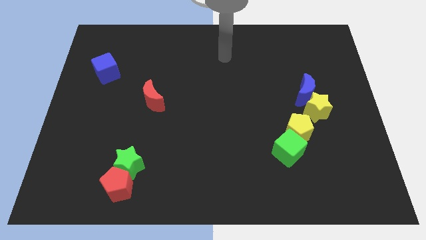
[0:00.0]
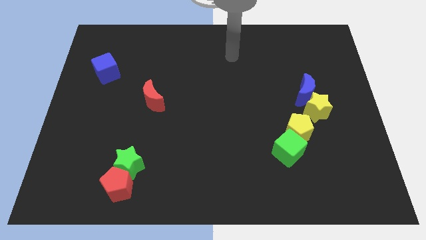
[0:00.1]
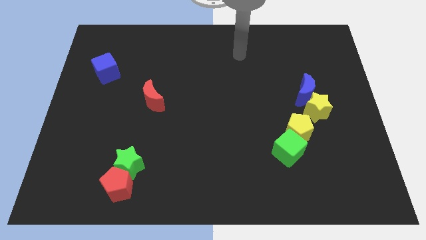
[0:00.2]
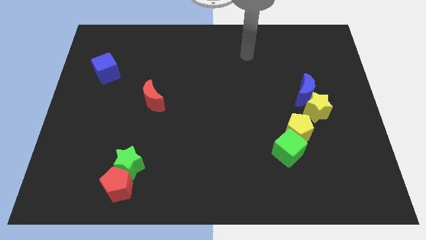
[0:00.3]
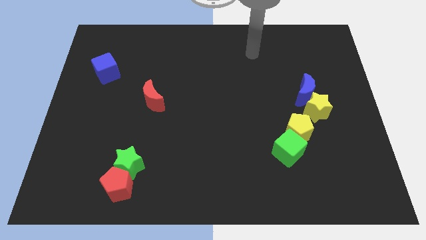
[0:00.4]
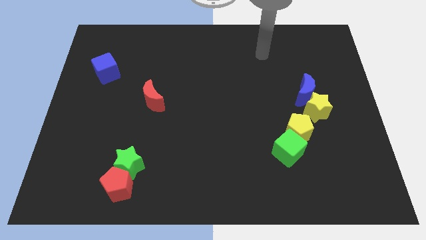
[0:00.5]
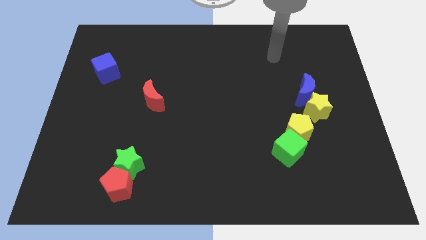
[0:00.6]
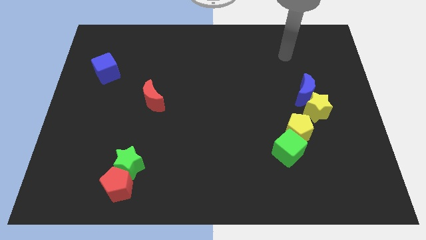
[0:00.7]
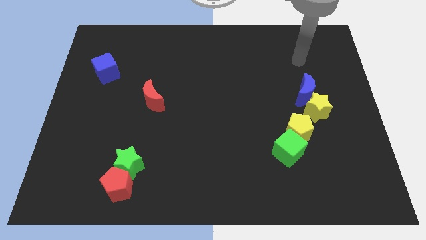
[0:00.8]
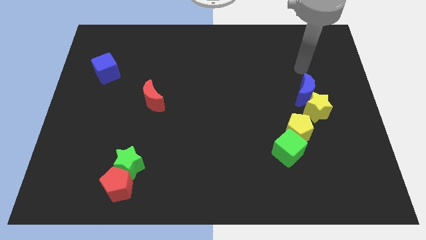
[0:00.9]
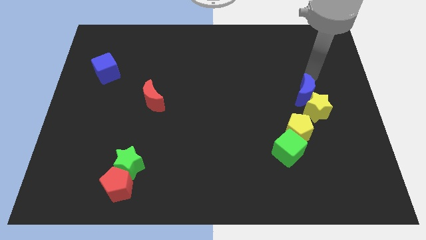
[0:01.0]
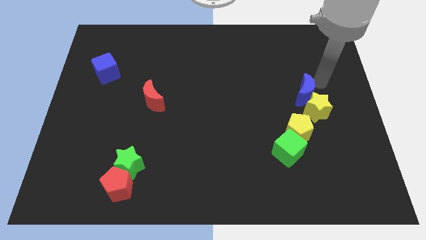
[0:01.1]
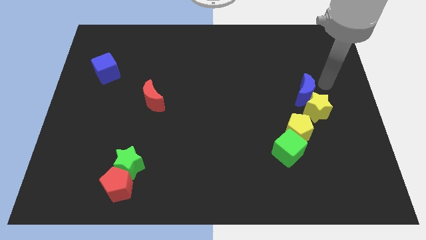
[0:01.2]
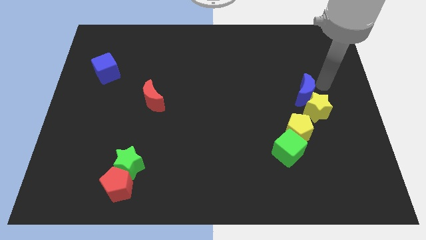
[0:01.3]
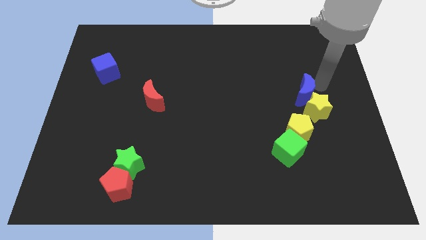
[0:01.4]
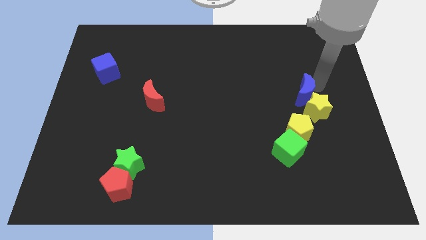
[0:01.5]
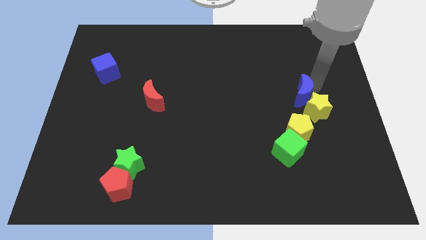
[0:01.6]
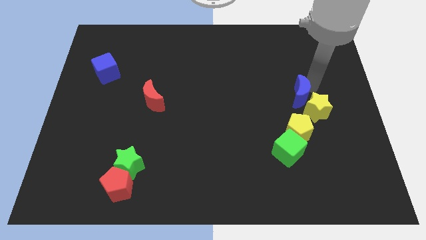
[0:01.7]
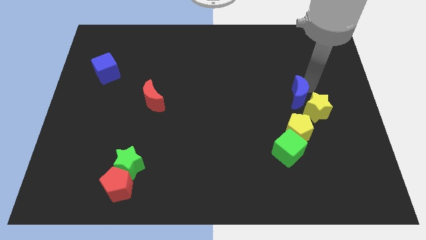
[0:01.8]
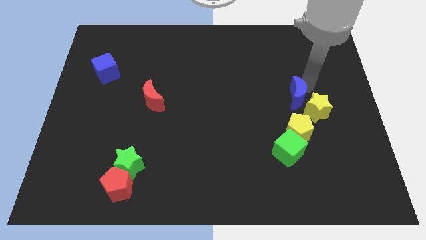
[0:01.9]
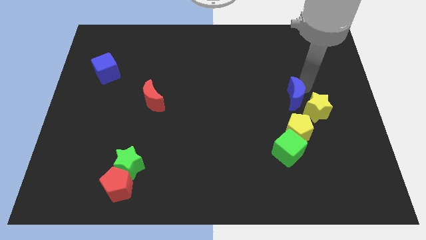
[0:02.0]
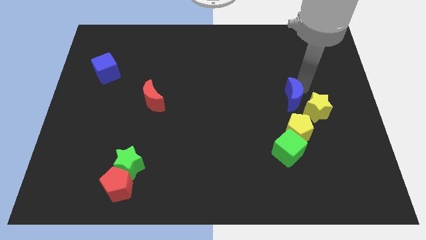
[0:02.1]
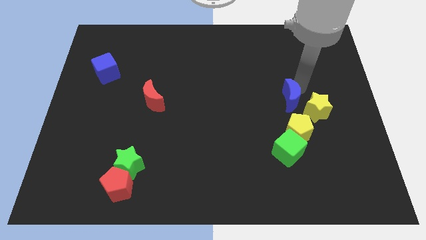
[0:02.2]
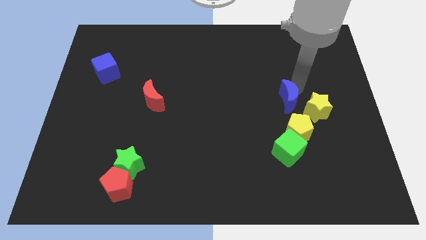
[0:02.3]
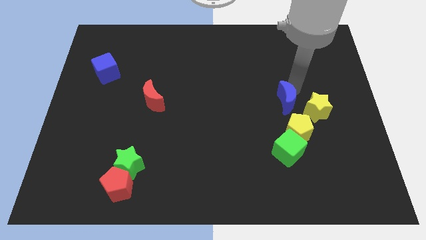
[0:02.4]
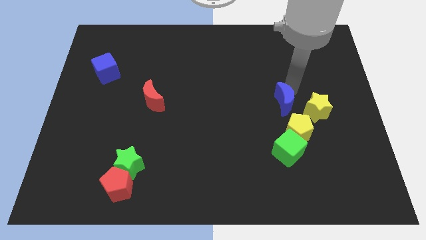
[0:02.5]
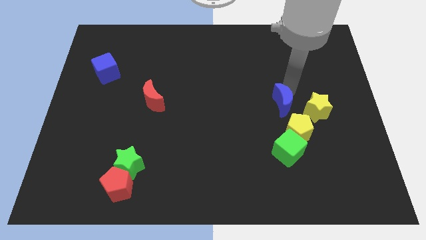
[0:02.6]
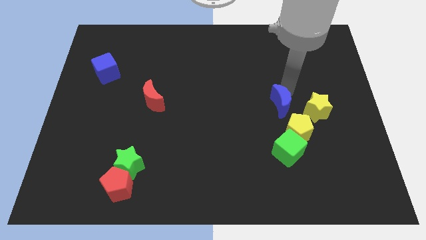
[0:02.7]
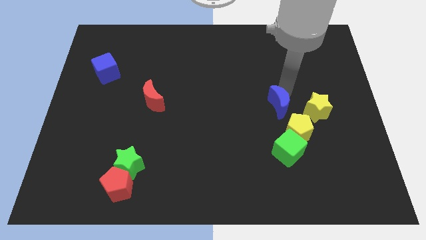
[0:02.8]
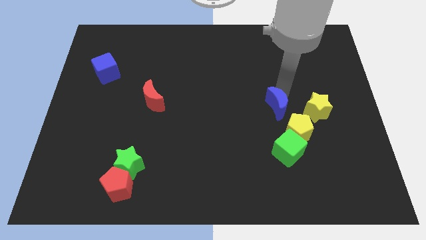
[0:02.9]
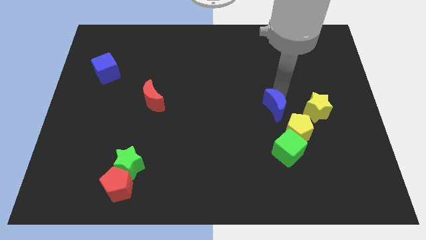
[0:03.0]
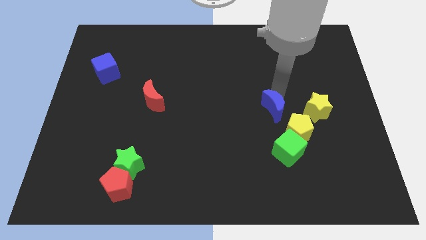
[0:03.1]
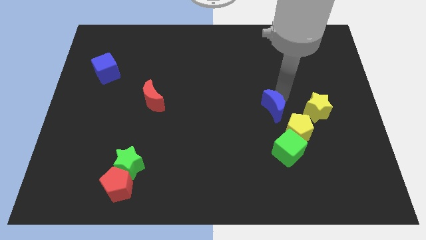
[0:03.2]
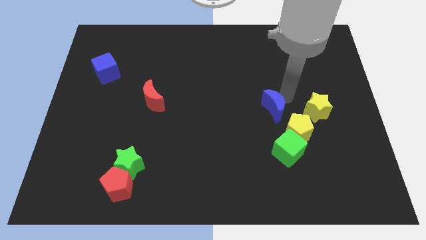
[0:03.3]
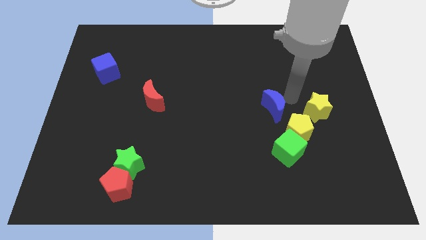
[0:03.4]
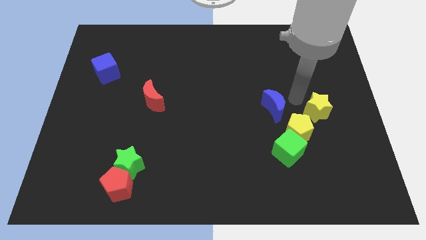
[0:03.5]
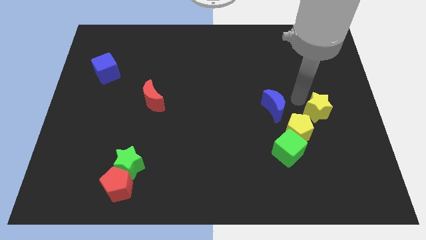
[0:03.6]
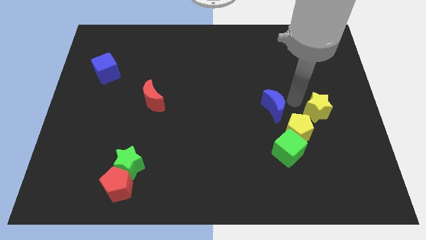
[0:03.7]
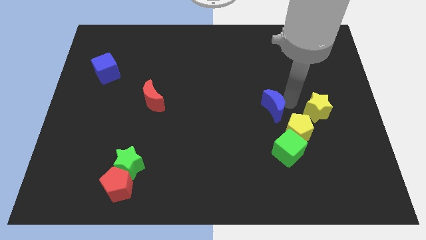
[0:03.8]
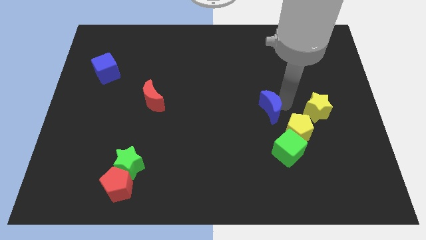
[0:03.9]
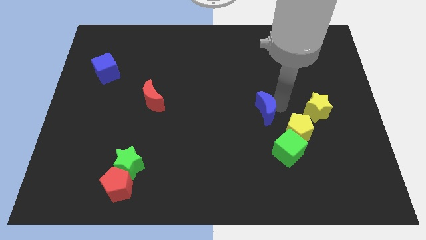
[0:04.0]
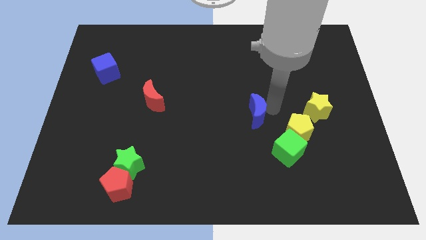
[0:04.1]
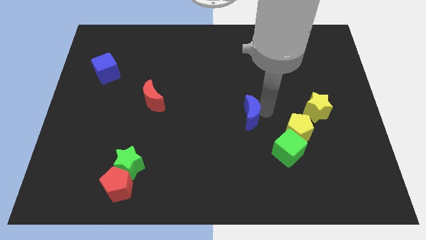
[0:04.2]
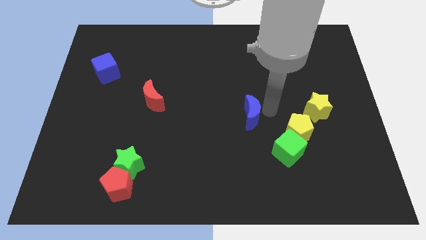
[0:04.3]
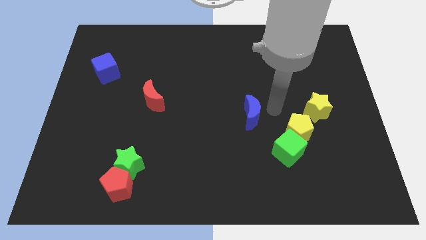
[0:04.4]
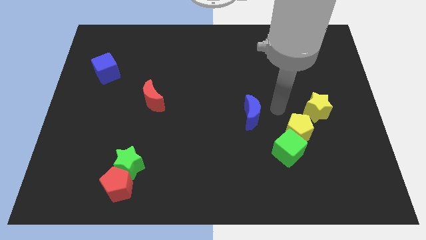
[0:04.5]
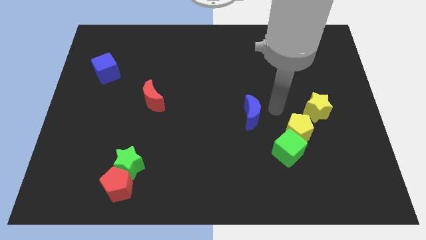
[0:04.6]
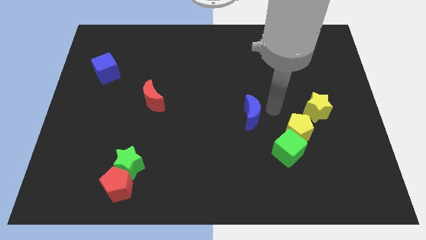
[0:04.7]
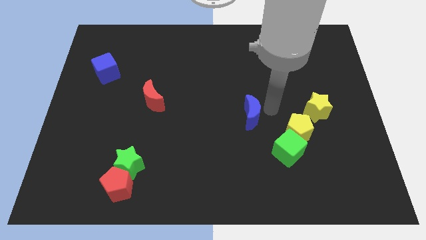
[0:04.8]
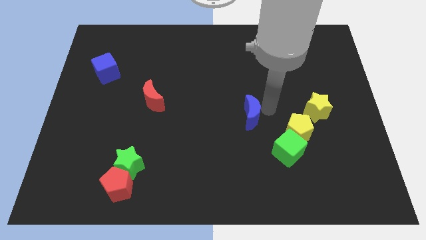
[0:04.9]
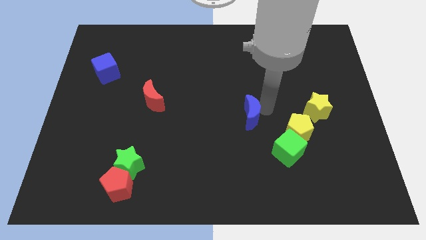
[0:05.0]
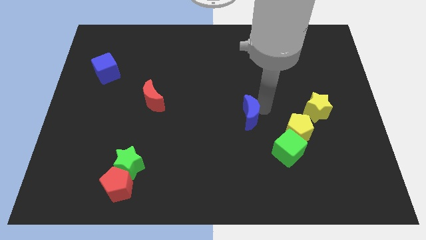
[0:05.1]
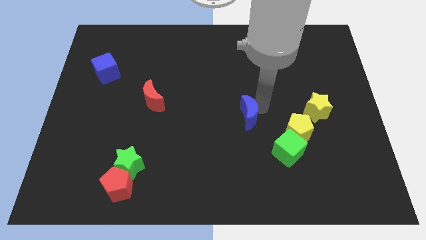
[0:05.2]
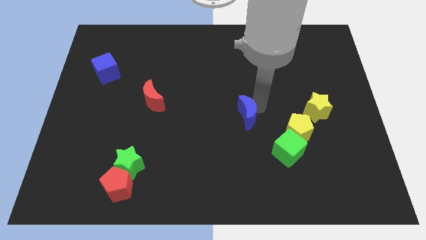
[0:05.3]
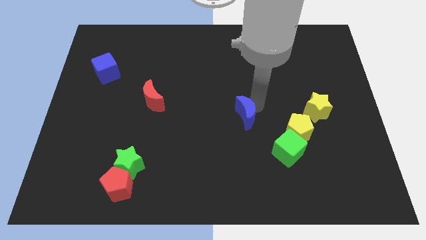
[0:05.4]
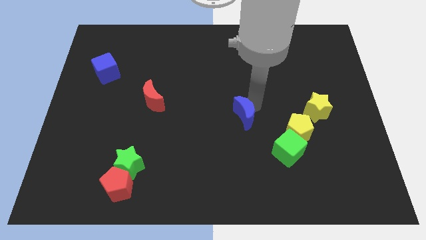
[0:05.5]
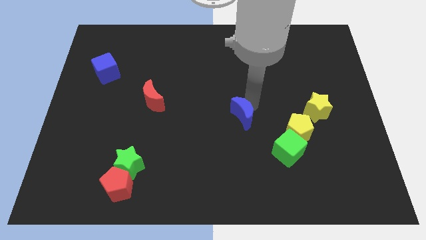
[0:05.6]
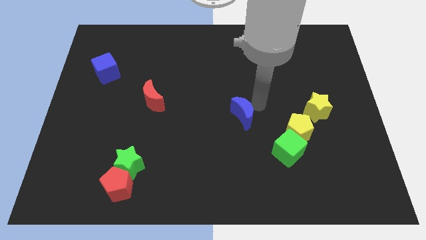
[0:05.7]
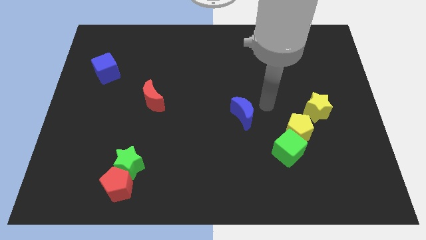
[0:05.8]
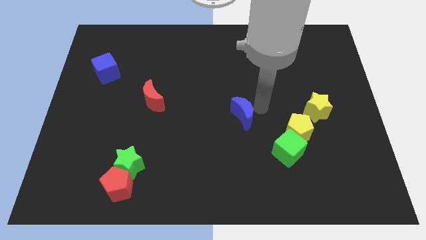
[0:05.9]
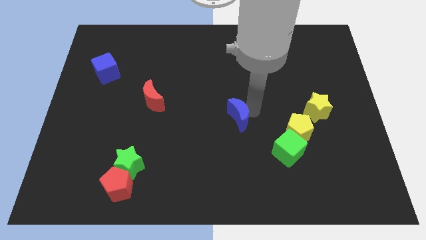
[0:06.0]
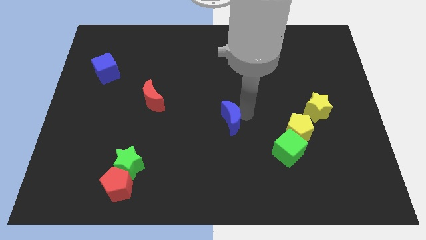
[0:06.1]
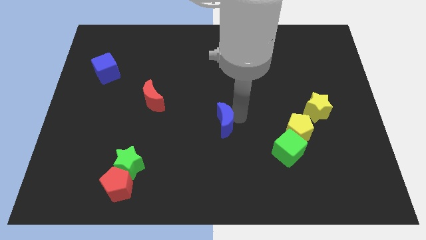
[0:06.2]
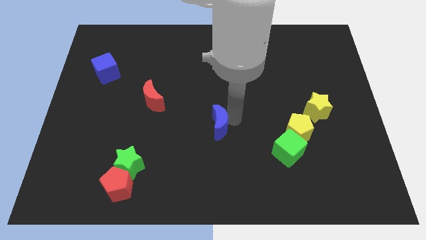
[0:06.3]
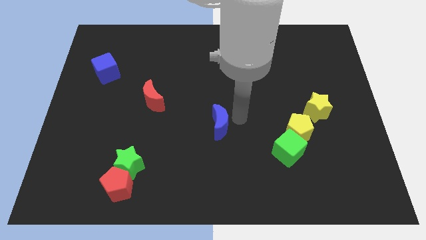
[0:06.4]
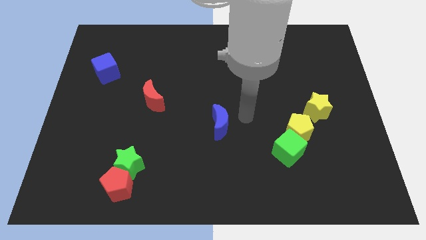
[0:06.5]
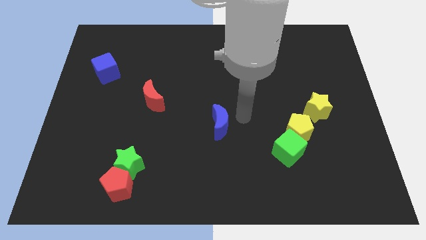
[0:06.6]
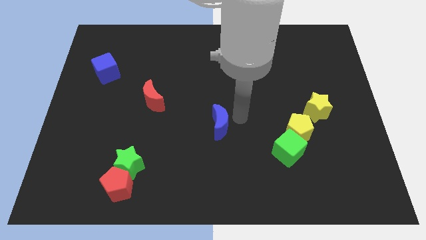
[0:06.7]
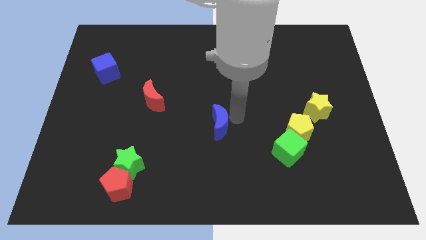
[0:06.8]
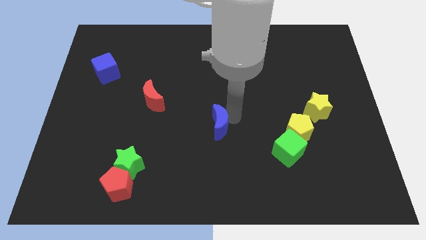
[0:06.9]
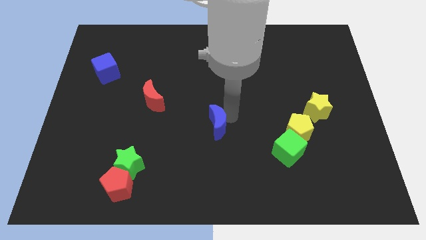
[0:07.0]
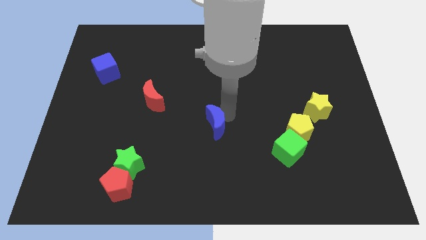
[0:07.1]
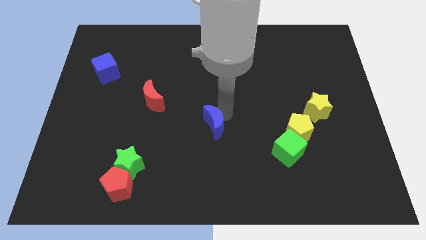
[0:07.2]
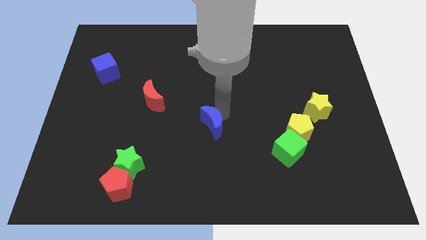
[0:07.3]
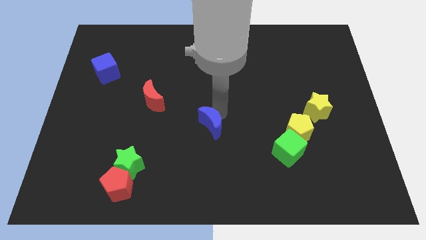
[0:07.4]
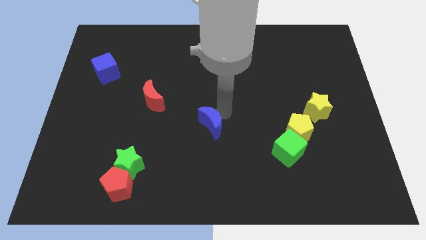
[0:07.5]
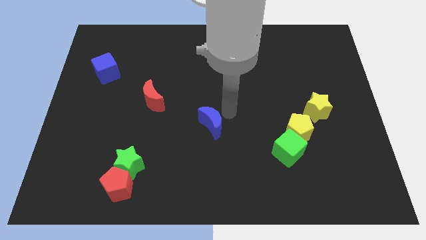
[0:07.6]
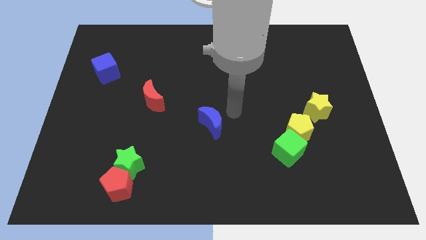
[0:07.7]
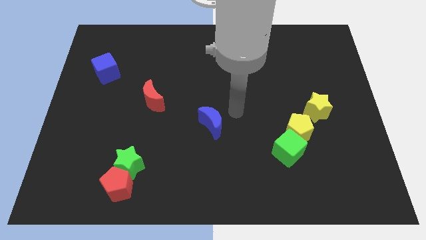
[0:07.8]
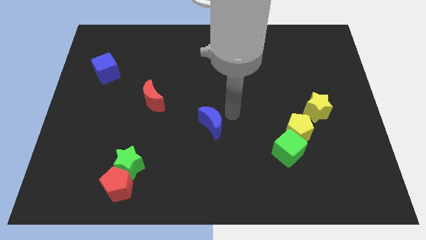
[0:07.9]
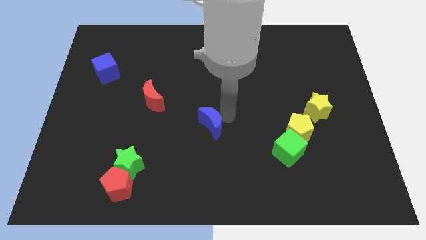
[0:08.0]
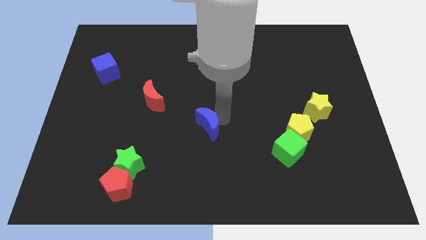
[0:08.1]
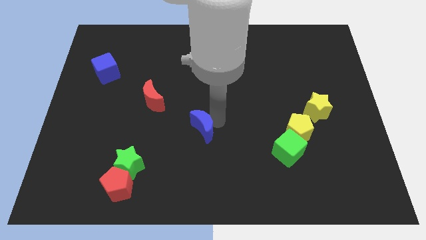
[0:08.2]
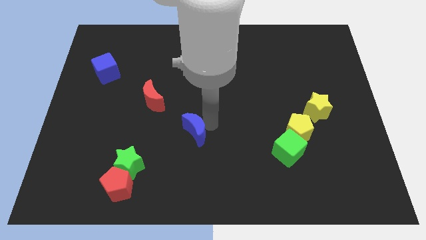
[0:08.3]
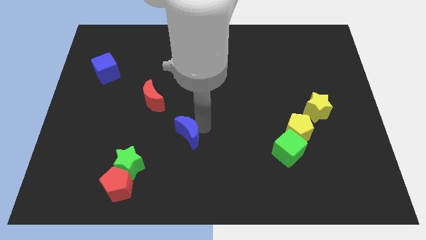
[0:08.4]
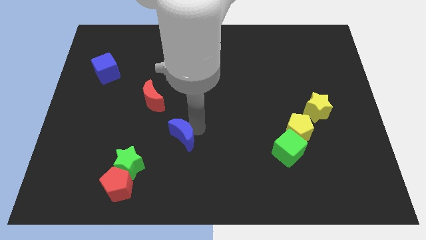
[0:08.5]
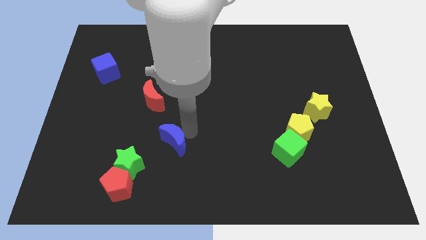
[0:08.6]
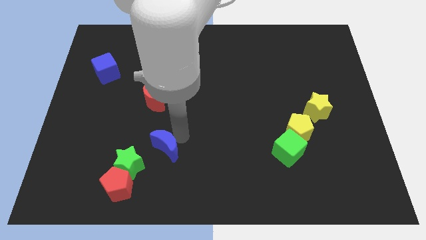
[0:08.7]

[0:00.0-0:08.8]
move the blue moon to the top right of the red pentagon
